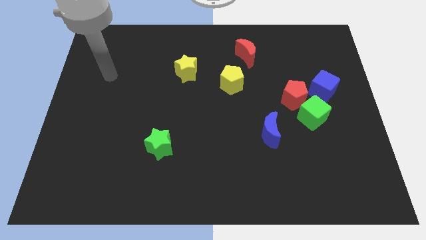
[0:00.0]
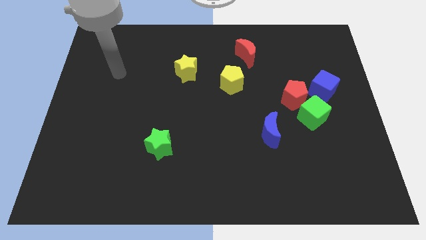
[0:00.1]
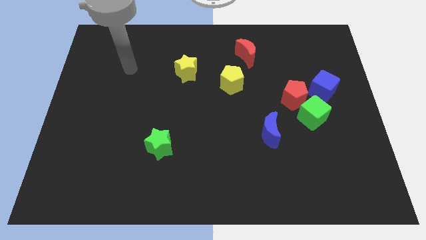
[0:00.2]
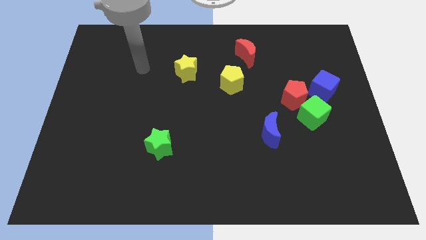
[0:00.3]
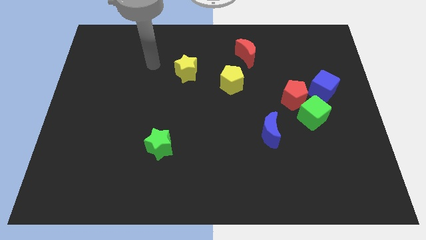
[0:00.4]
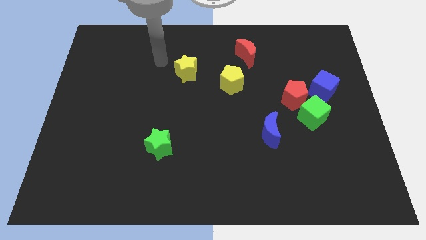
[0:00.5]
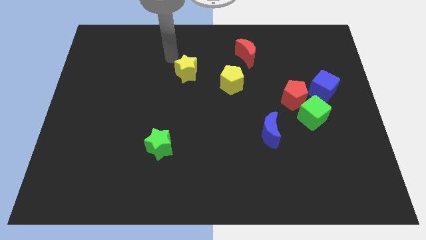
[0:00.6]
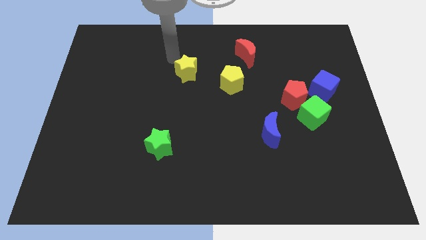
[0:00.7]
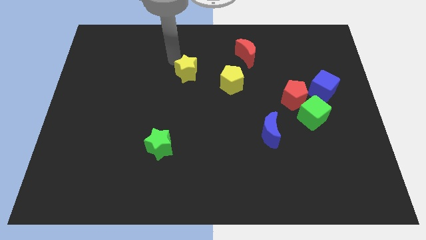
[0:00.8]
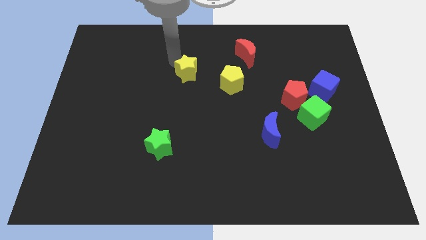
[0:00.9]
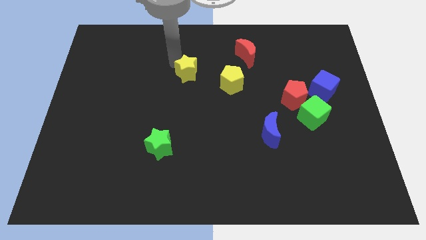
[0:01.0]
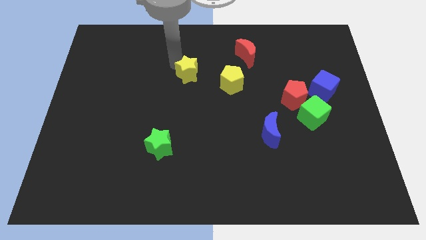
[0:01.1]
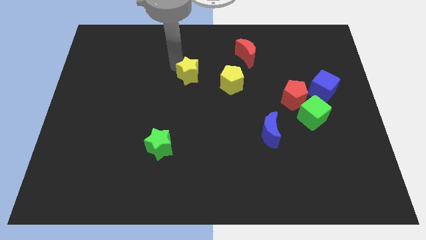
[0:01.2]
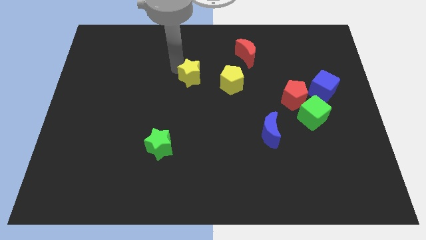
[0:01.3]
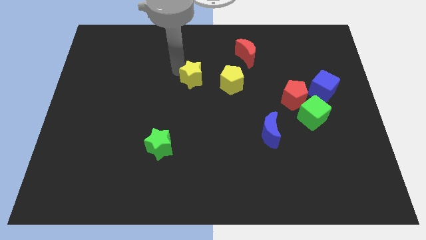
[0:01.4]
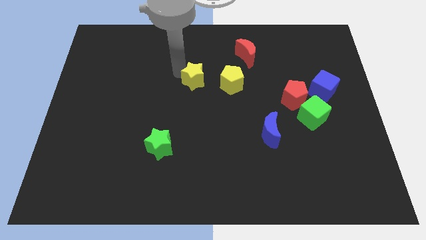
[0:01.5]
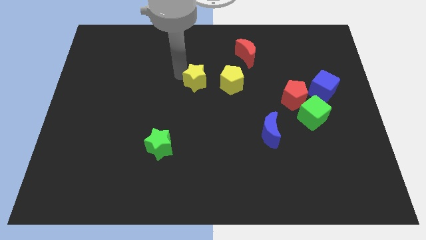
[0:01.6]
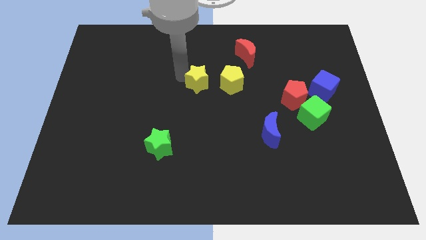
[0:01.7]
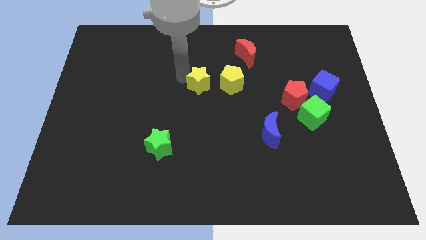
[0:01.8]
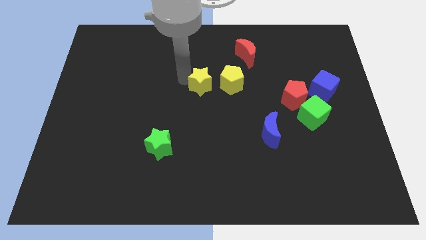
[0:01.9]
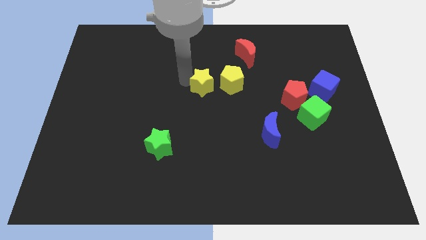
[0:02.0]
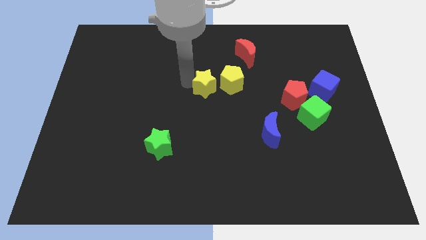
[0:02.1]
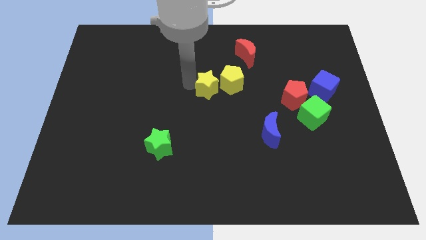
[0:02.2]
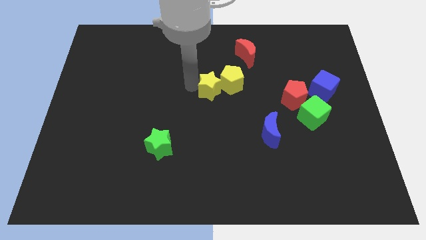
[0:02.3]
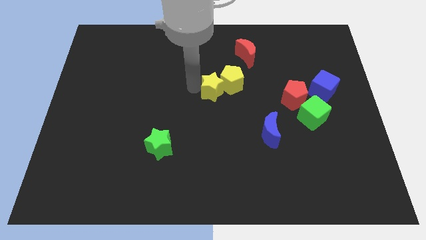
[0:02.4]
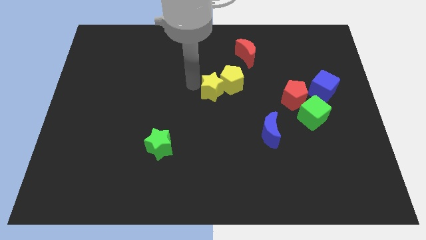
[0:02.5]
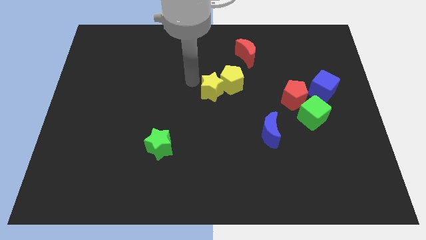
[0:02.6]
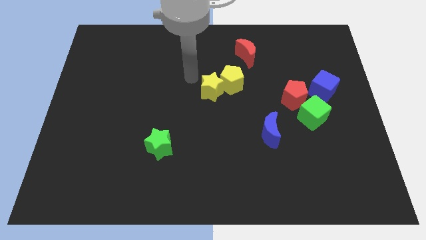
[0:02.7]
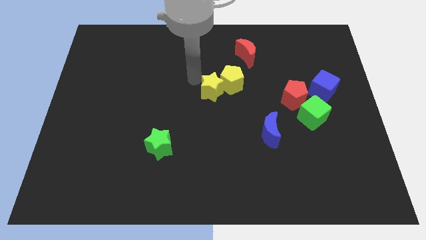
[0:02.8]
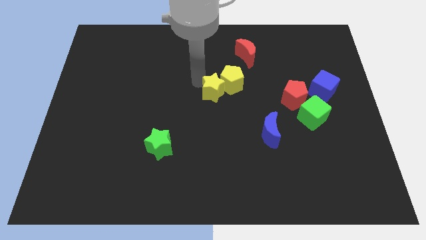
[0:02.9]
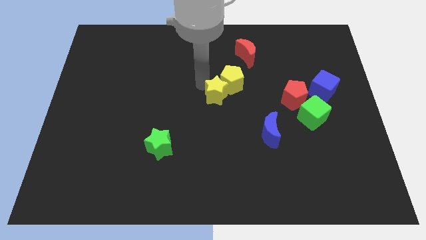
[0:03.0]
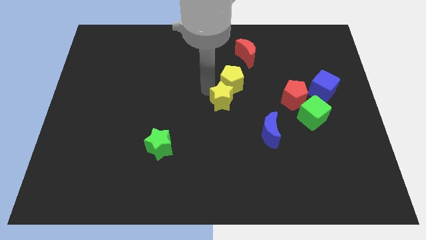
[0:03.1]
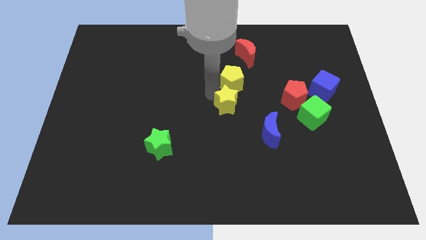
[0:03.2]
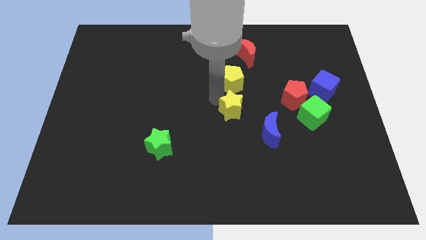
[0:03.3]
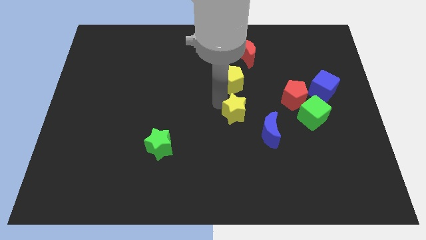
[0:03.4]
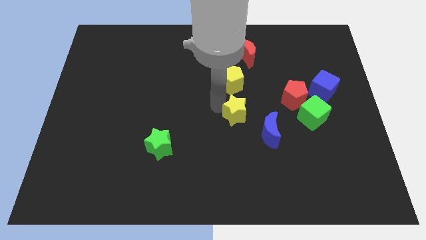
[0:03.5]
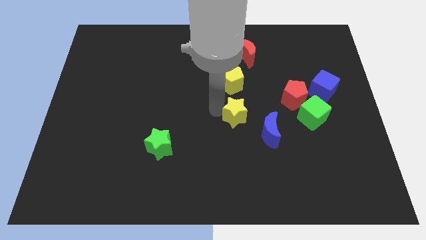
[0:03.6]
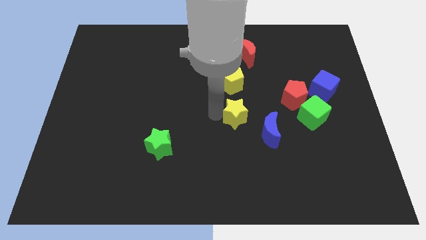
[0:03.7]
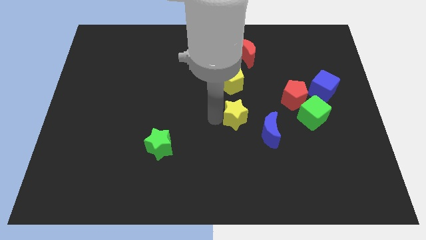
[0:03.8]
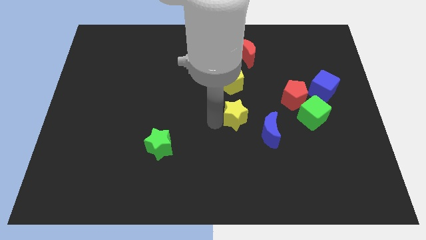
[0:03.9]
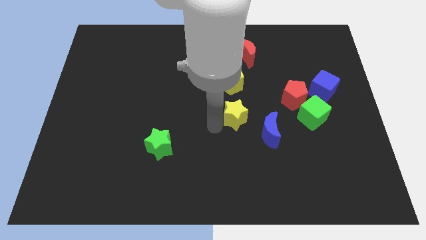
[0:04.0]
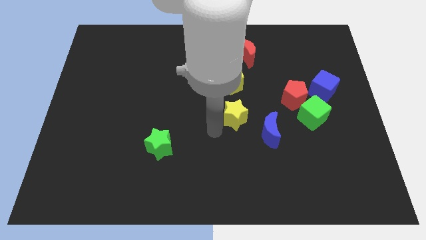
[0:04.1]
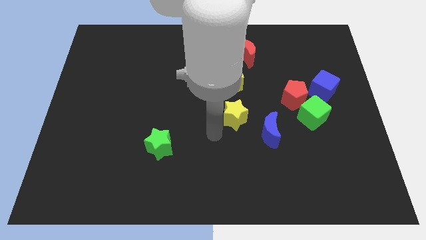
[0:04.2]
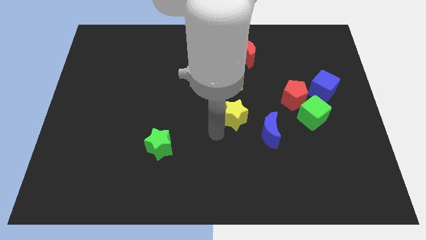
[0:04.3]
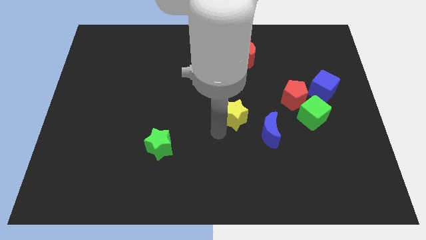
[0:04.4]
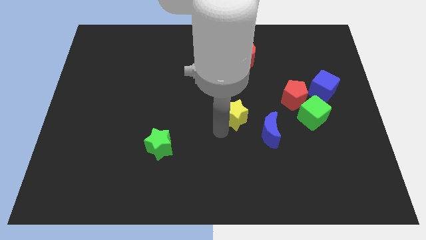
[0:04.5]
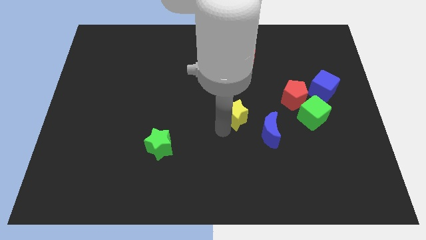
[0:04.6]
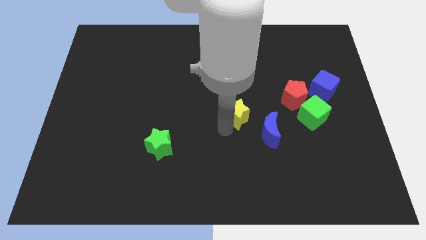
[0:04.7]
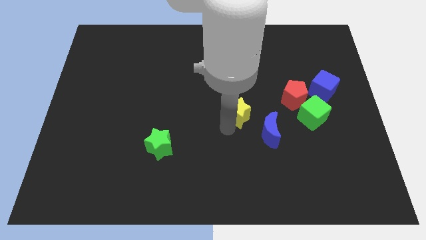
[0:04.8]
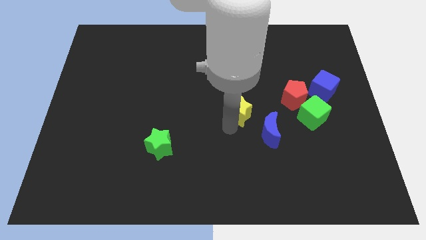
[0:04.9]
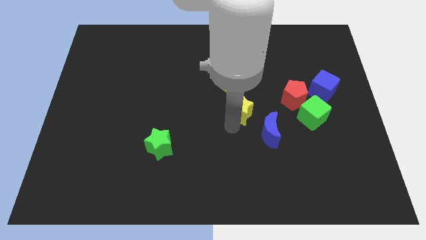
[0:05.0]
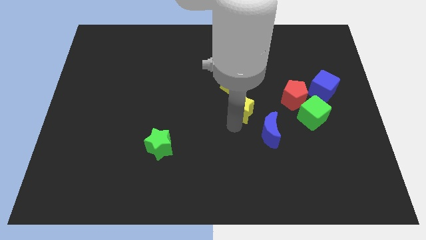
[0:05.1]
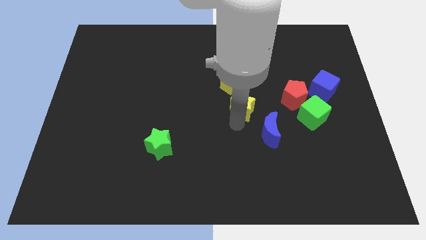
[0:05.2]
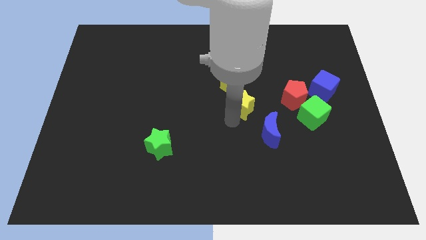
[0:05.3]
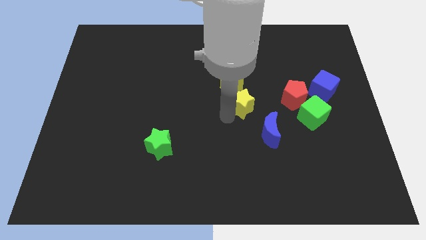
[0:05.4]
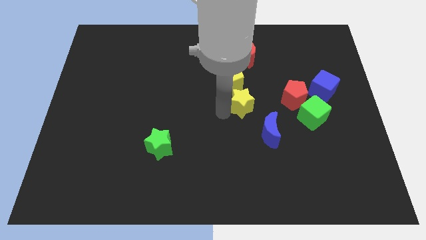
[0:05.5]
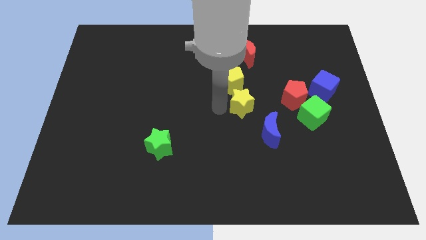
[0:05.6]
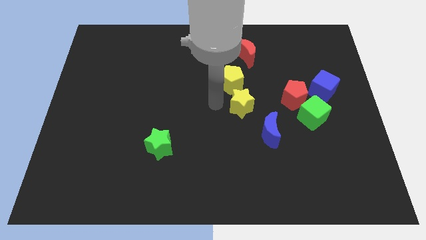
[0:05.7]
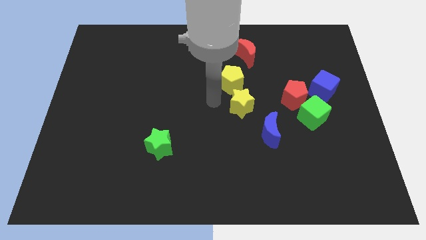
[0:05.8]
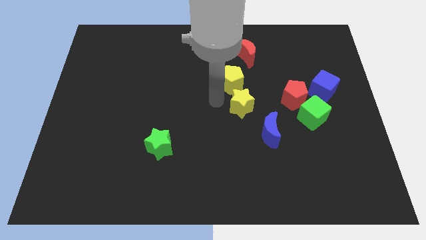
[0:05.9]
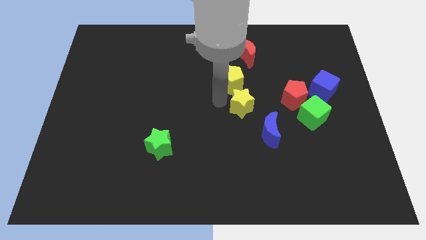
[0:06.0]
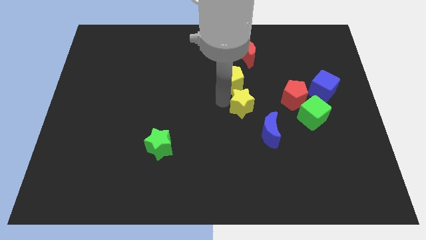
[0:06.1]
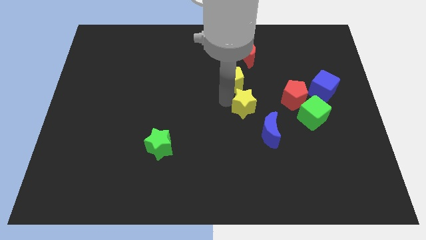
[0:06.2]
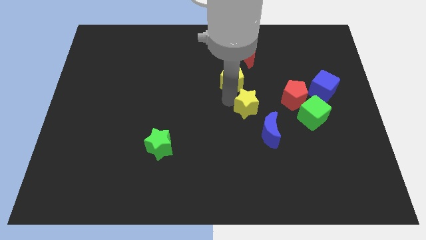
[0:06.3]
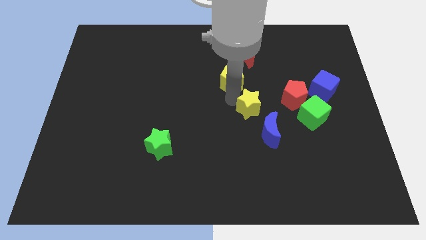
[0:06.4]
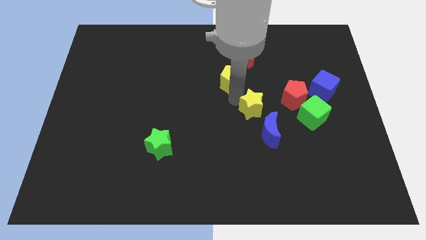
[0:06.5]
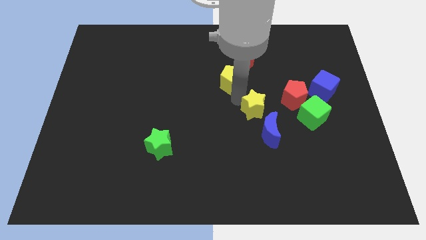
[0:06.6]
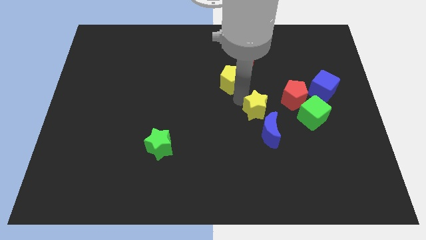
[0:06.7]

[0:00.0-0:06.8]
move the yellow star down and then to the right

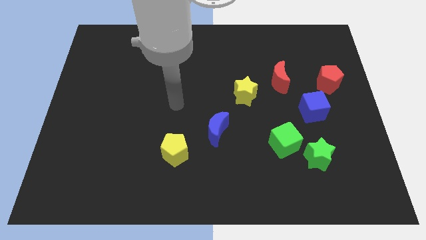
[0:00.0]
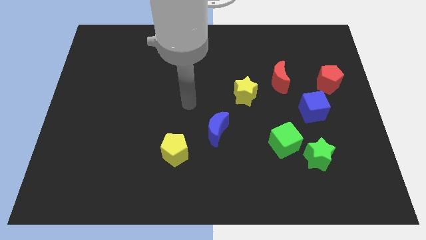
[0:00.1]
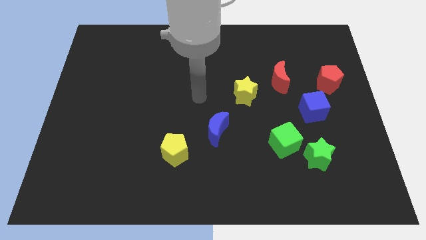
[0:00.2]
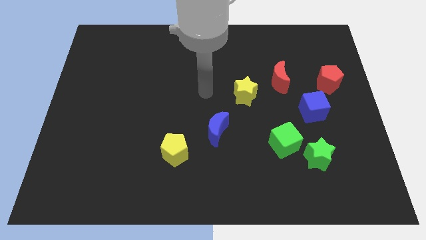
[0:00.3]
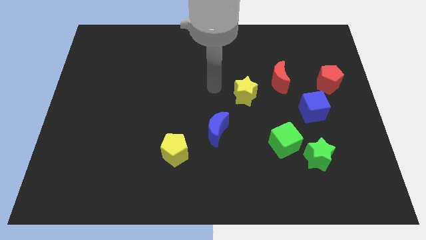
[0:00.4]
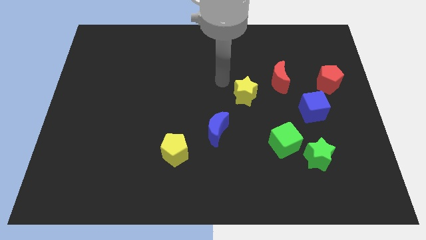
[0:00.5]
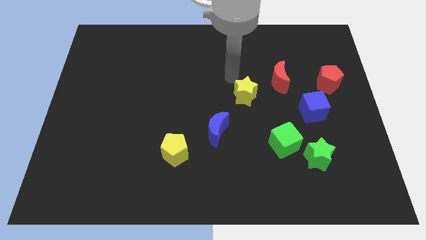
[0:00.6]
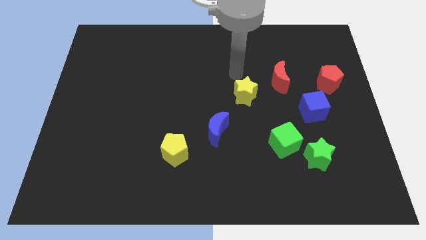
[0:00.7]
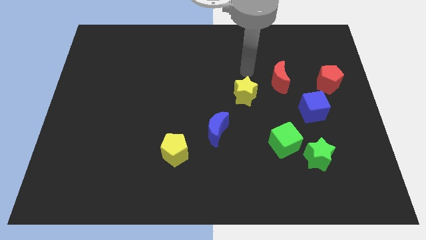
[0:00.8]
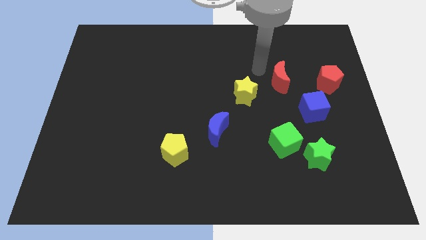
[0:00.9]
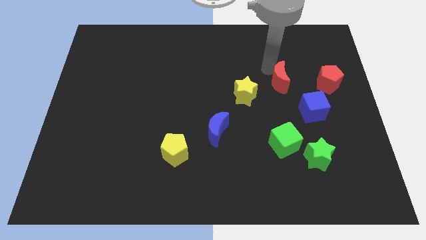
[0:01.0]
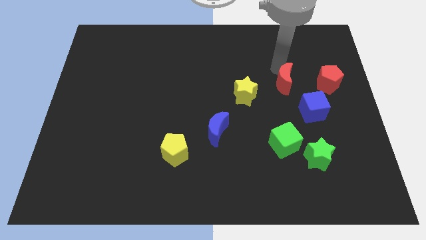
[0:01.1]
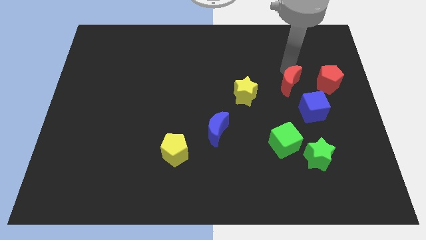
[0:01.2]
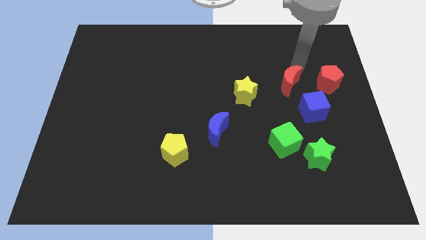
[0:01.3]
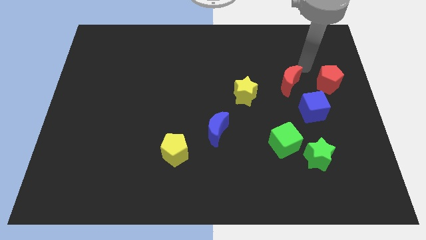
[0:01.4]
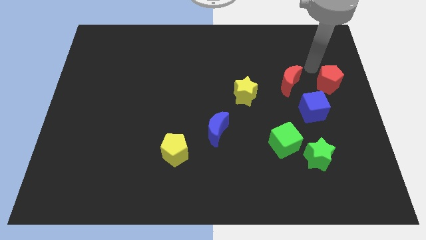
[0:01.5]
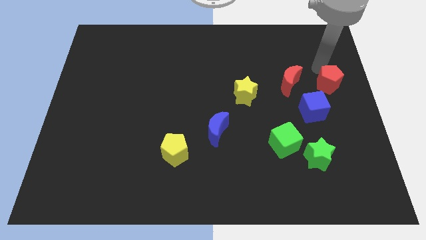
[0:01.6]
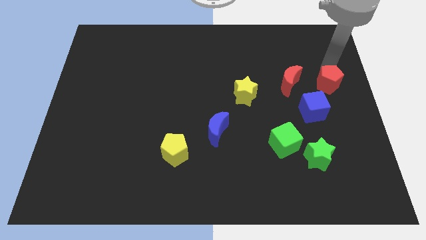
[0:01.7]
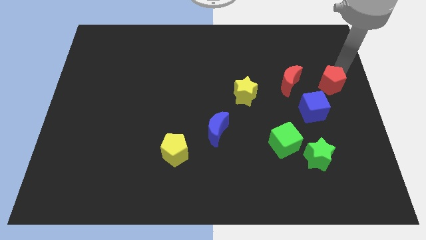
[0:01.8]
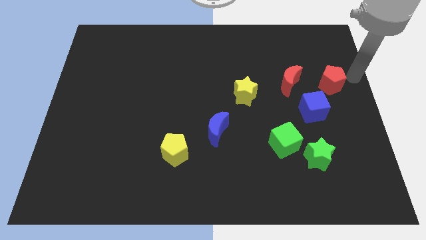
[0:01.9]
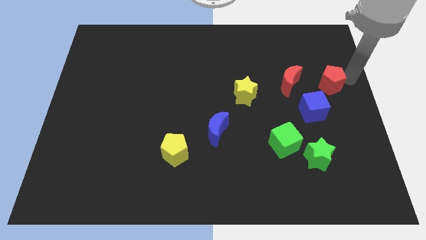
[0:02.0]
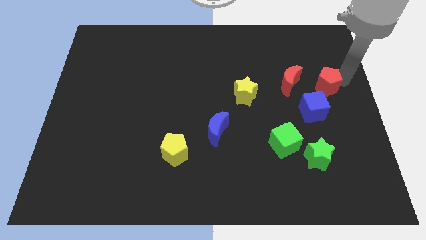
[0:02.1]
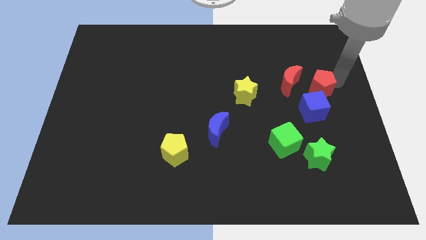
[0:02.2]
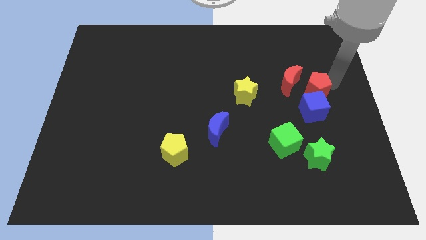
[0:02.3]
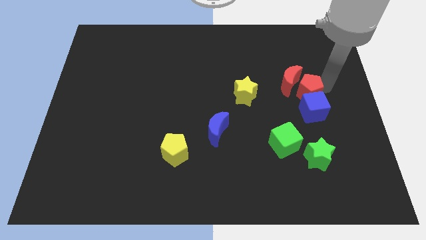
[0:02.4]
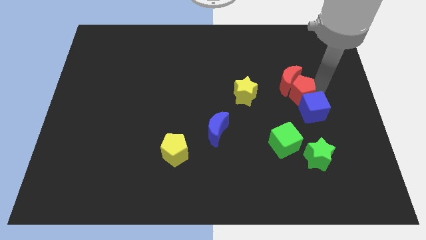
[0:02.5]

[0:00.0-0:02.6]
slide the red pentagon a little to the left
